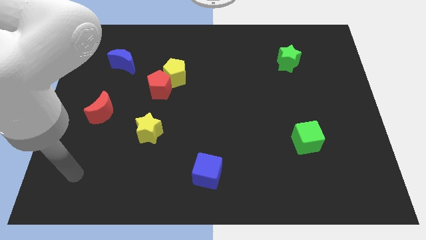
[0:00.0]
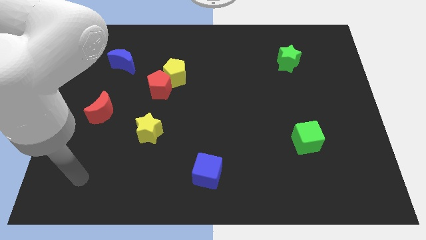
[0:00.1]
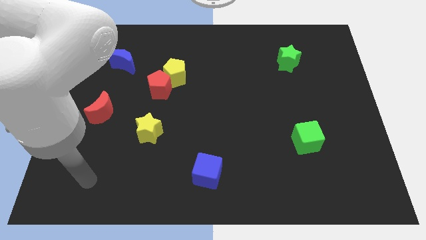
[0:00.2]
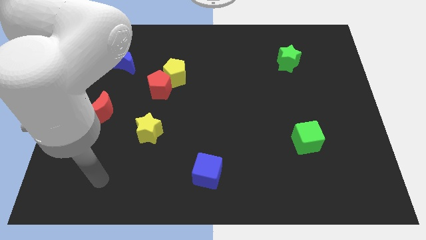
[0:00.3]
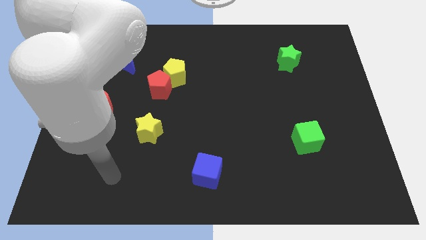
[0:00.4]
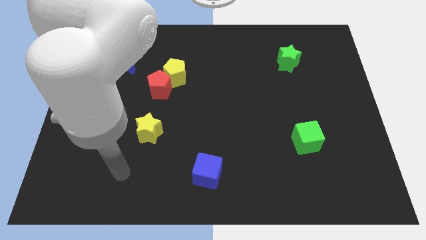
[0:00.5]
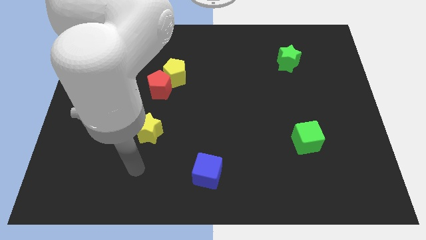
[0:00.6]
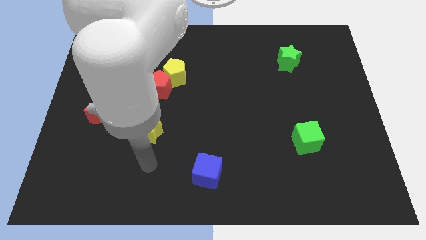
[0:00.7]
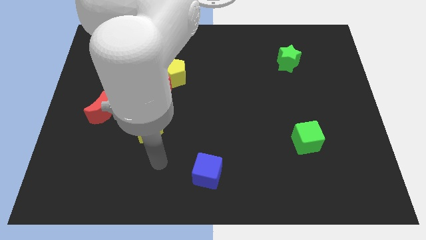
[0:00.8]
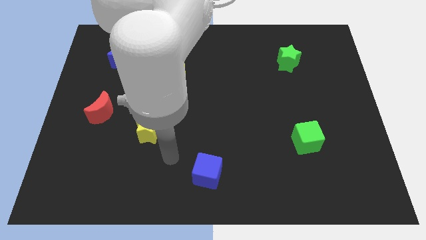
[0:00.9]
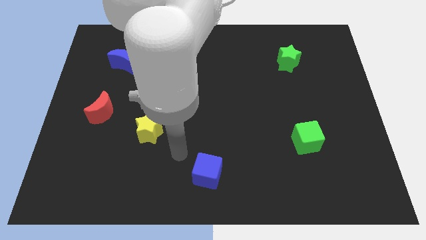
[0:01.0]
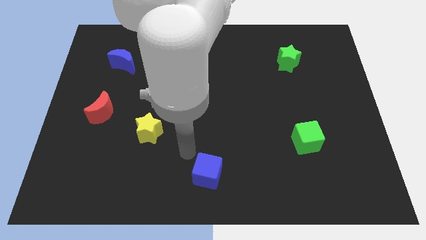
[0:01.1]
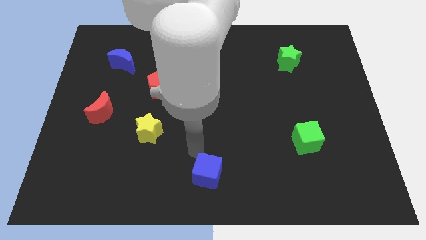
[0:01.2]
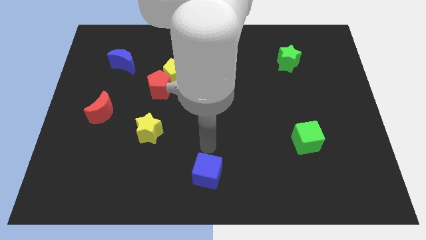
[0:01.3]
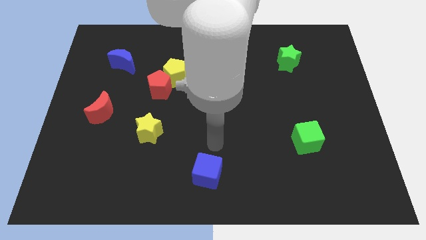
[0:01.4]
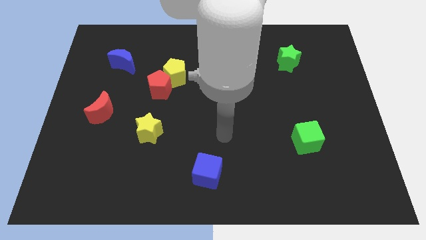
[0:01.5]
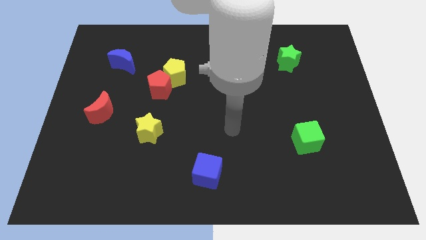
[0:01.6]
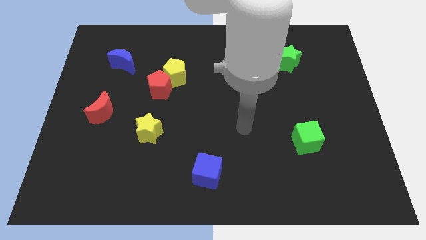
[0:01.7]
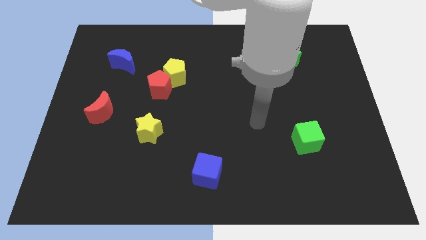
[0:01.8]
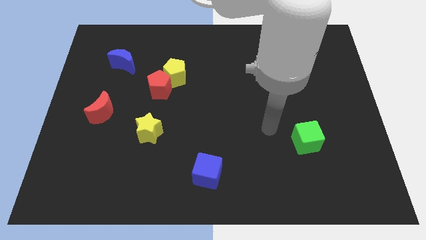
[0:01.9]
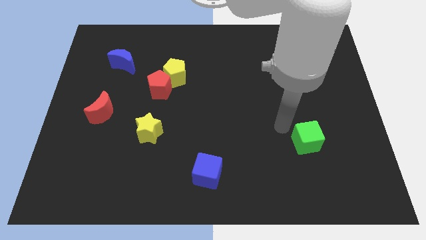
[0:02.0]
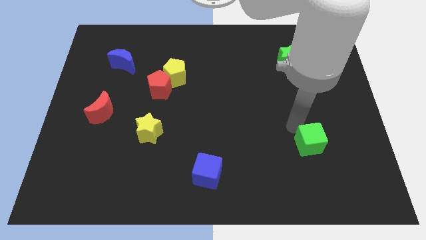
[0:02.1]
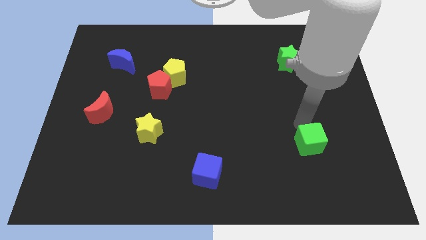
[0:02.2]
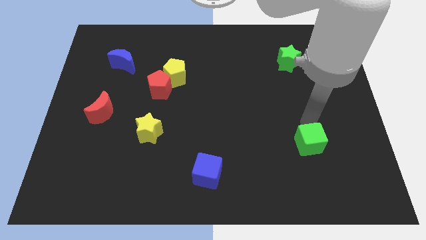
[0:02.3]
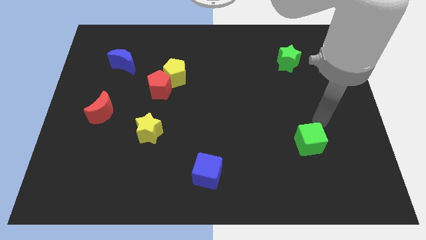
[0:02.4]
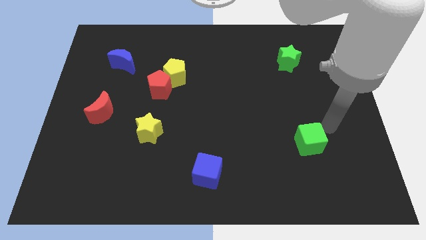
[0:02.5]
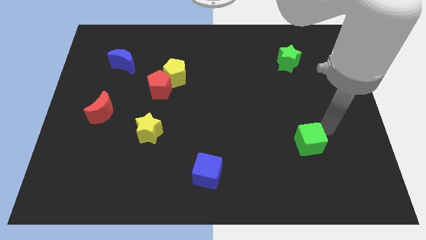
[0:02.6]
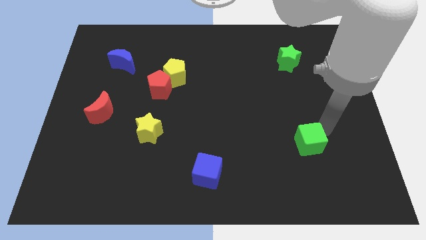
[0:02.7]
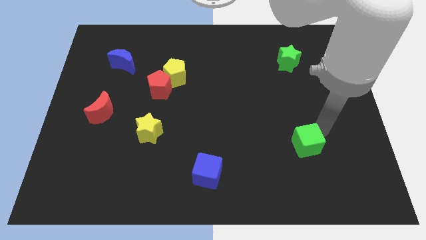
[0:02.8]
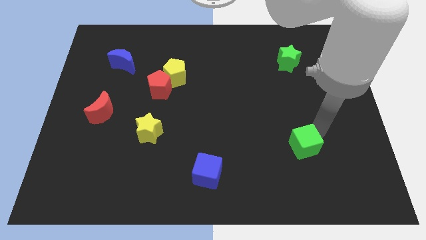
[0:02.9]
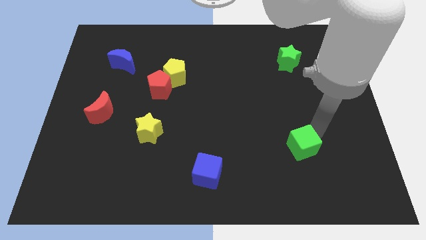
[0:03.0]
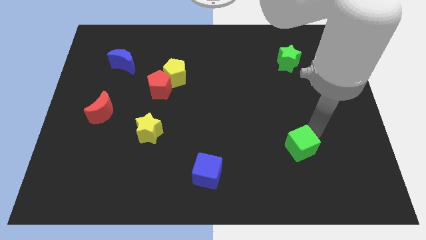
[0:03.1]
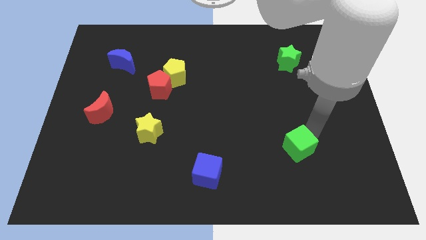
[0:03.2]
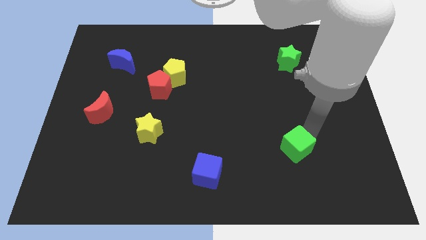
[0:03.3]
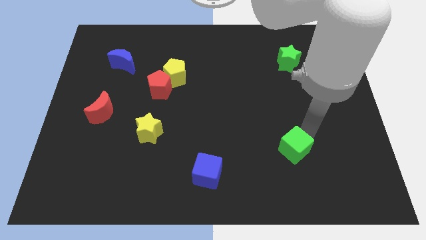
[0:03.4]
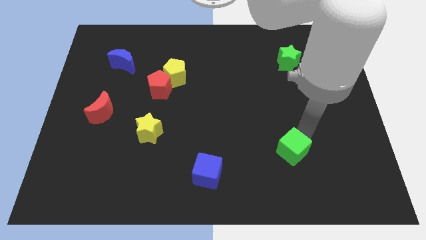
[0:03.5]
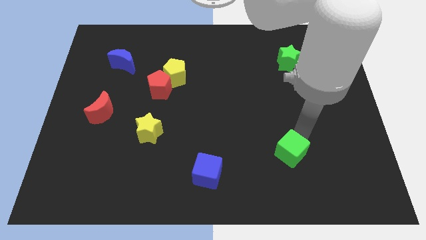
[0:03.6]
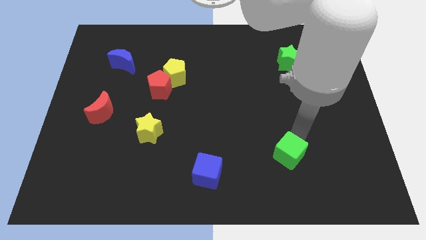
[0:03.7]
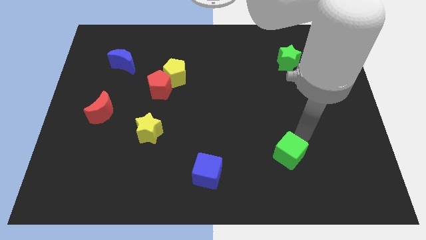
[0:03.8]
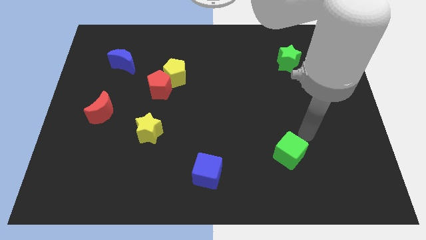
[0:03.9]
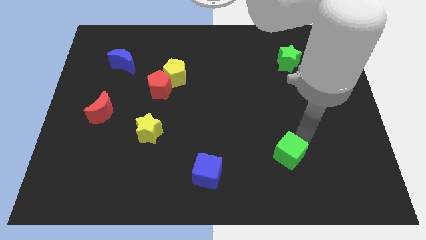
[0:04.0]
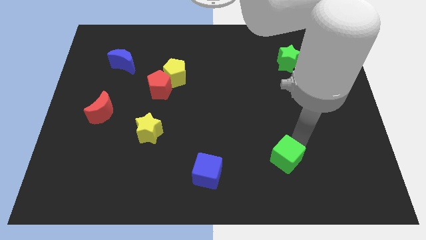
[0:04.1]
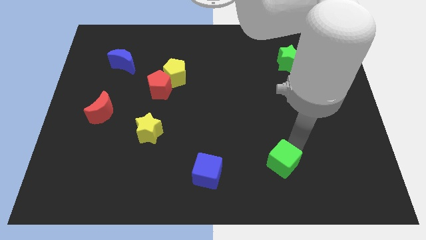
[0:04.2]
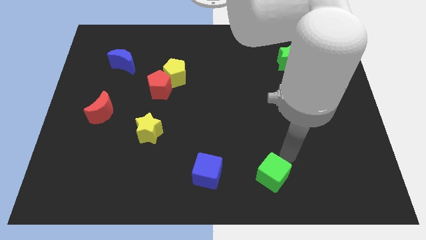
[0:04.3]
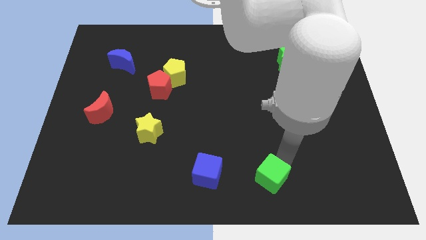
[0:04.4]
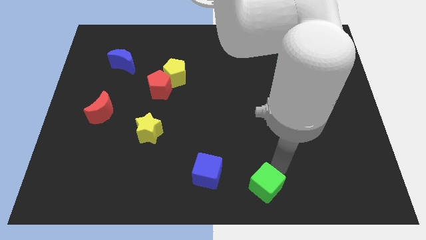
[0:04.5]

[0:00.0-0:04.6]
slide the green cube to the bottom

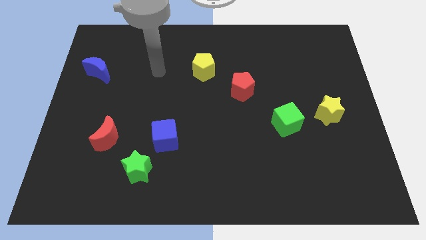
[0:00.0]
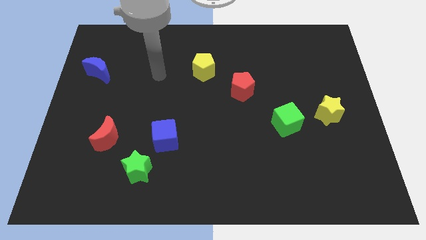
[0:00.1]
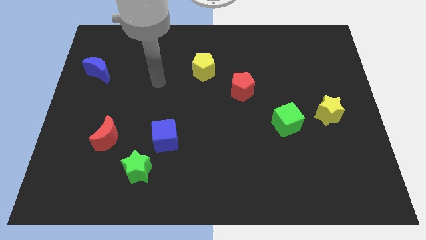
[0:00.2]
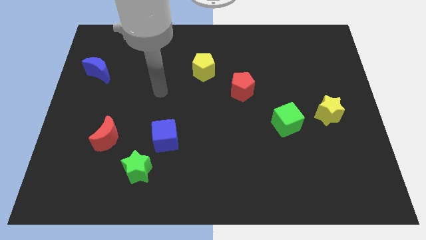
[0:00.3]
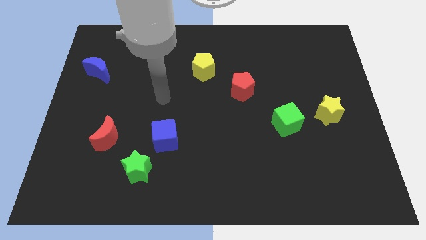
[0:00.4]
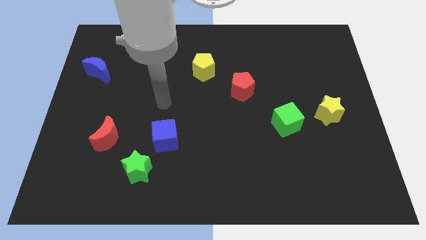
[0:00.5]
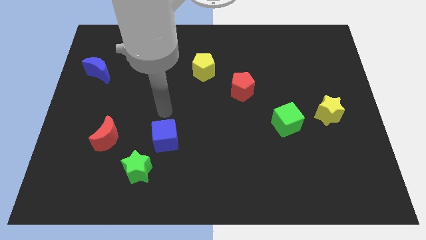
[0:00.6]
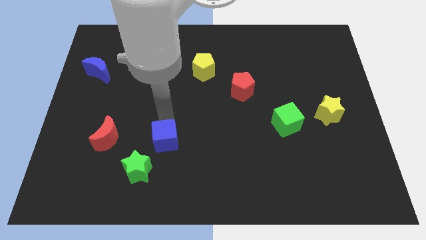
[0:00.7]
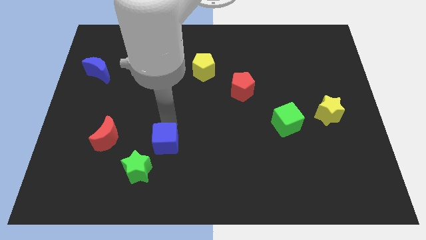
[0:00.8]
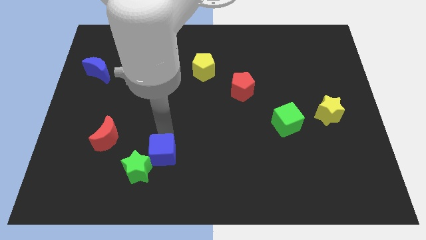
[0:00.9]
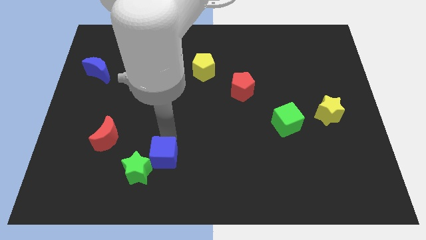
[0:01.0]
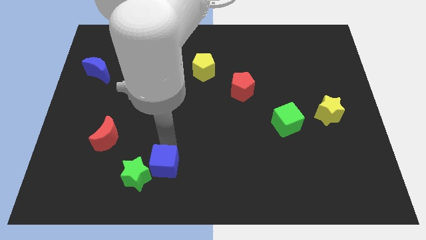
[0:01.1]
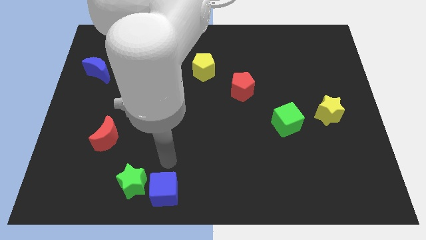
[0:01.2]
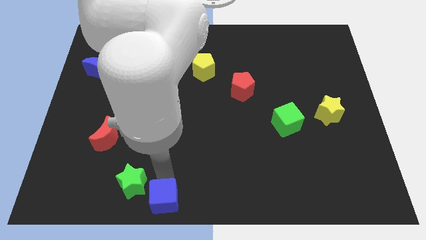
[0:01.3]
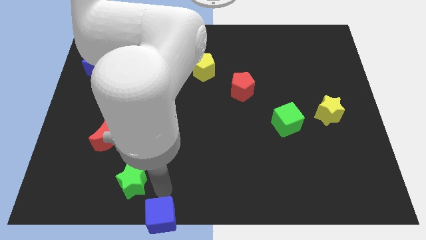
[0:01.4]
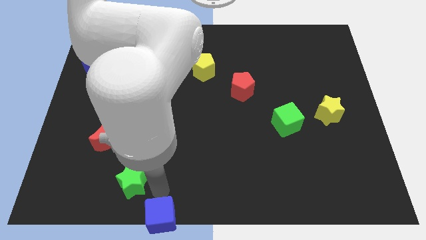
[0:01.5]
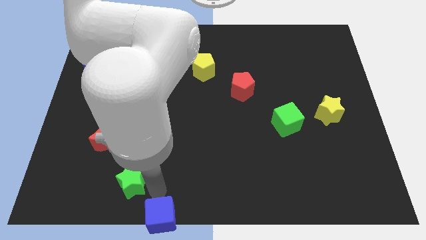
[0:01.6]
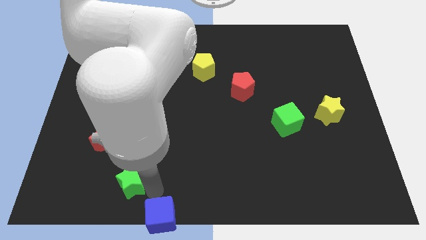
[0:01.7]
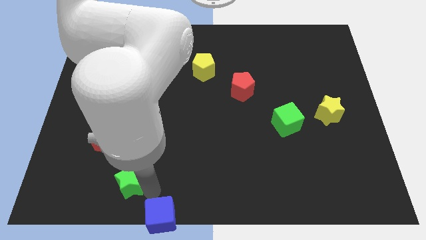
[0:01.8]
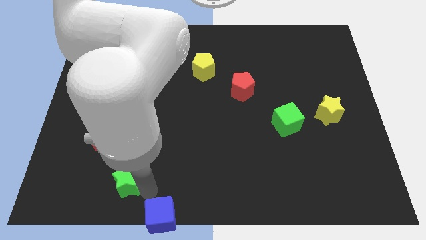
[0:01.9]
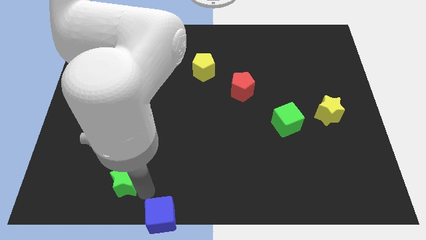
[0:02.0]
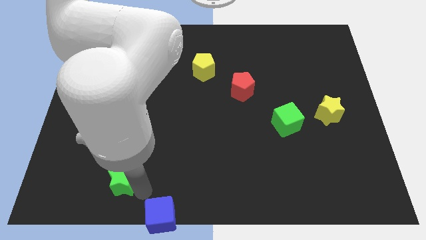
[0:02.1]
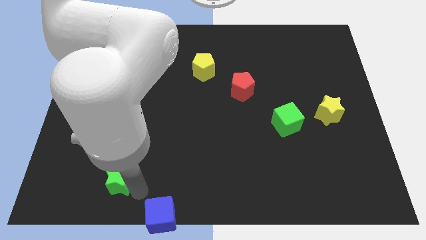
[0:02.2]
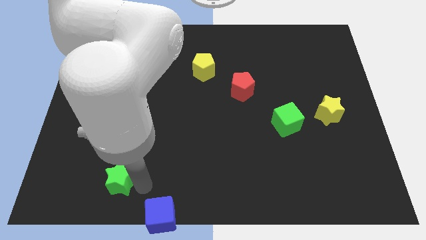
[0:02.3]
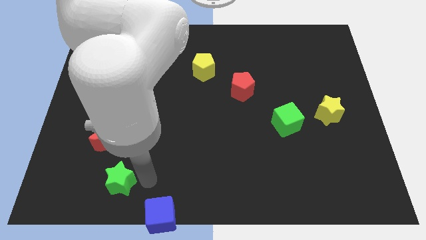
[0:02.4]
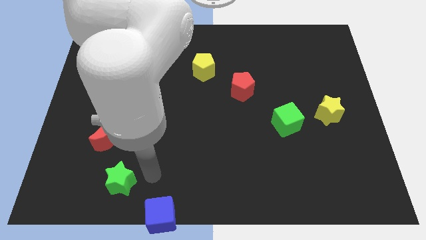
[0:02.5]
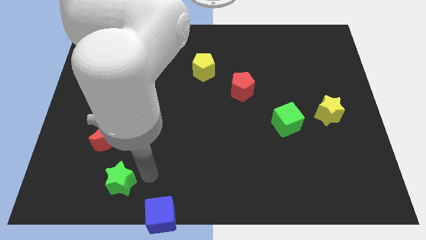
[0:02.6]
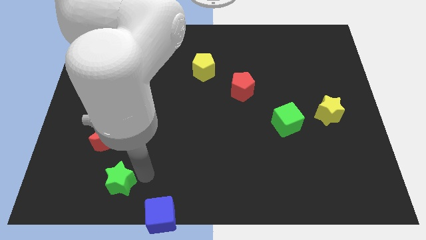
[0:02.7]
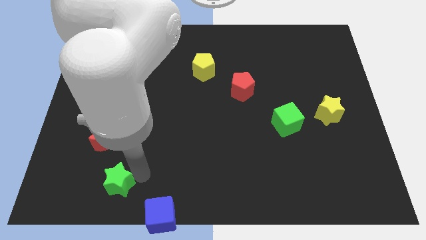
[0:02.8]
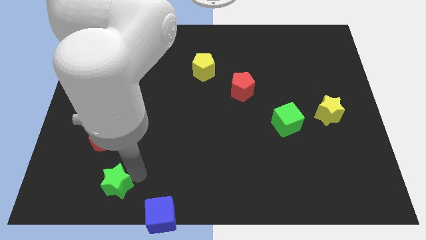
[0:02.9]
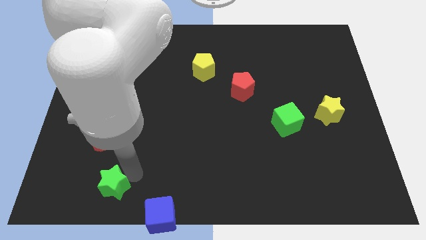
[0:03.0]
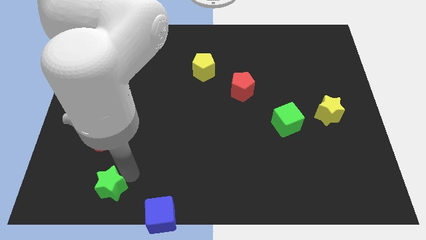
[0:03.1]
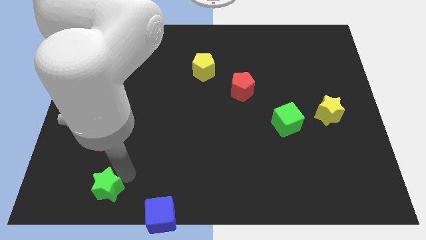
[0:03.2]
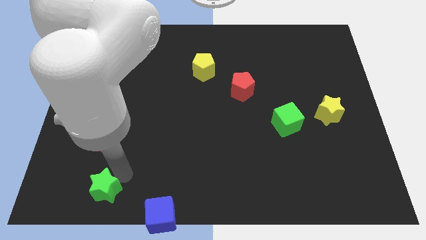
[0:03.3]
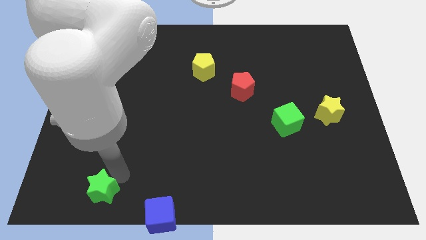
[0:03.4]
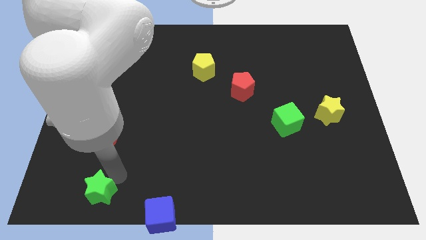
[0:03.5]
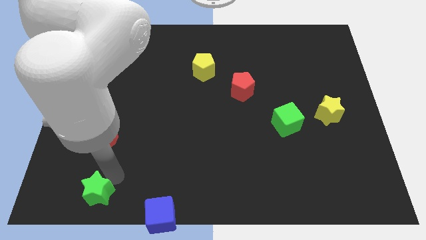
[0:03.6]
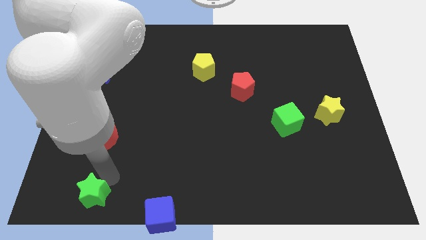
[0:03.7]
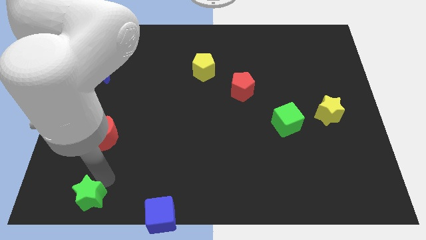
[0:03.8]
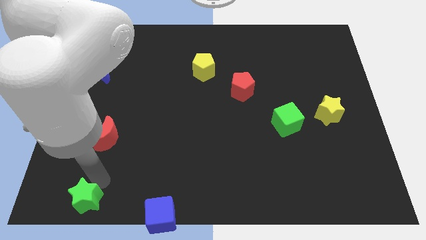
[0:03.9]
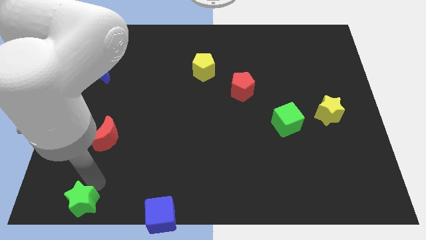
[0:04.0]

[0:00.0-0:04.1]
slide the green star to the bottom left of the board
